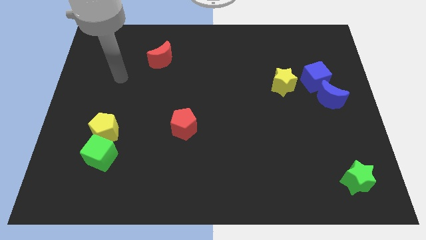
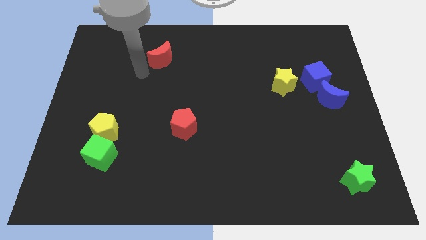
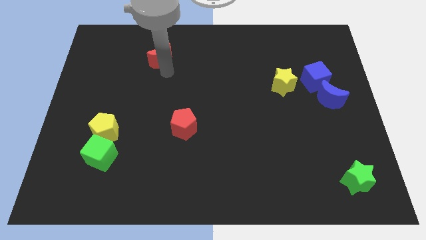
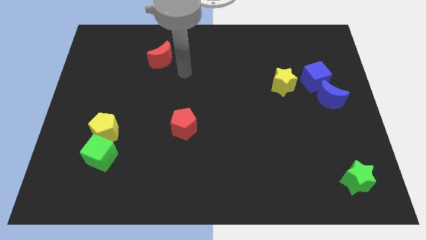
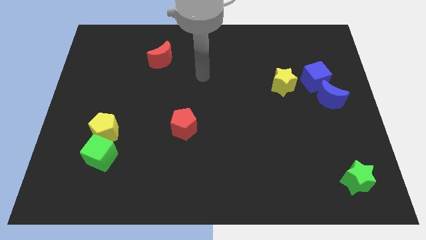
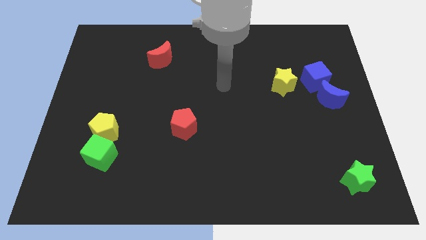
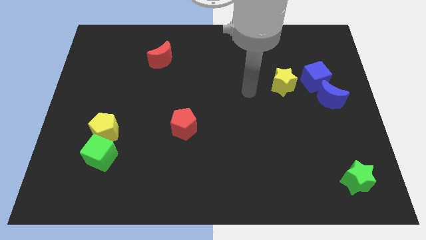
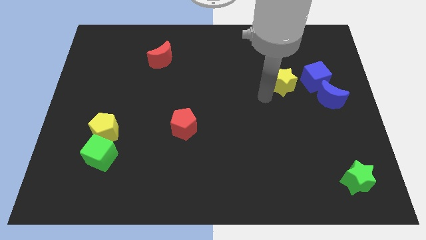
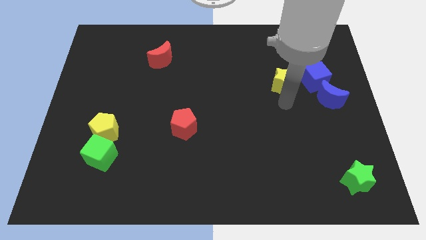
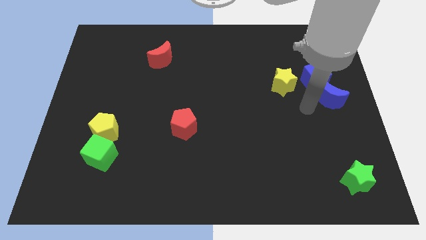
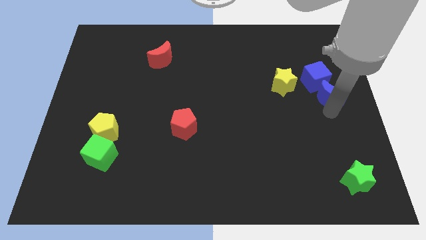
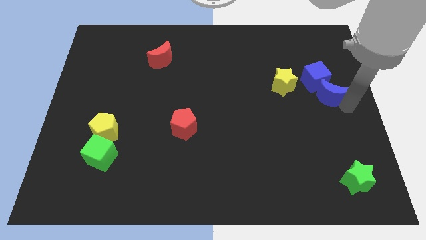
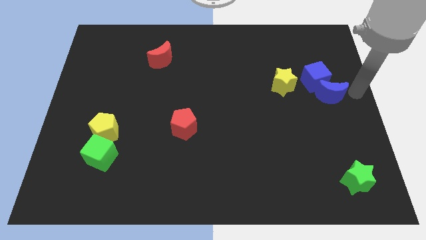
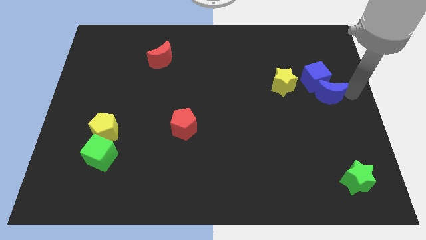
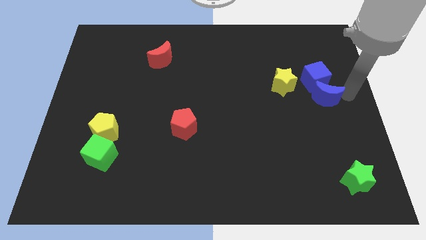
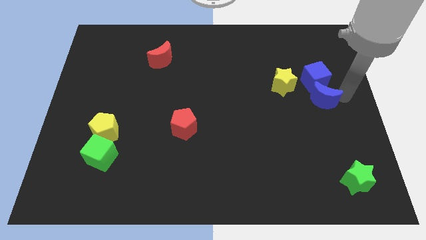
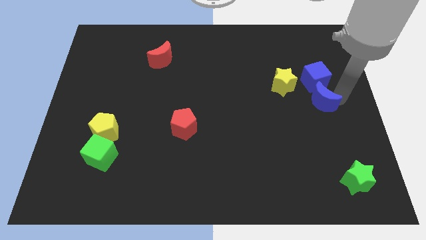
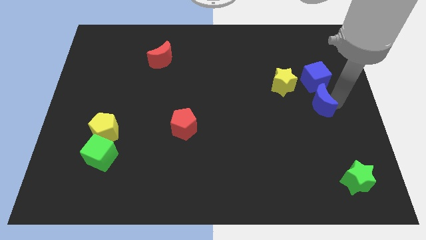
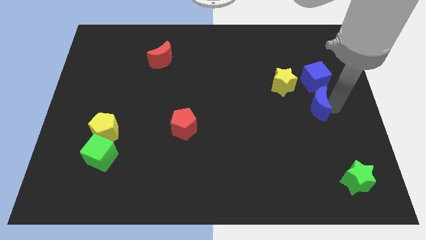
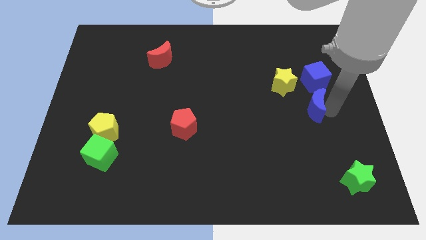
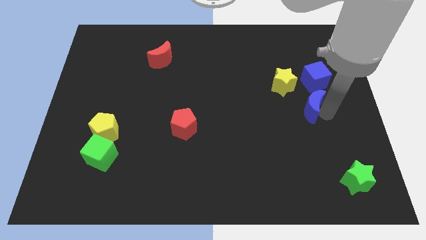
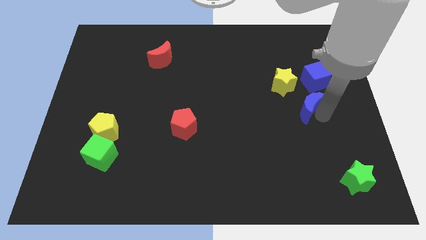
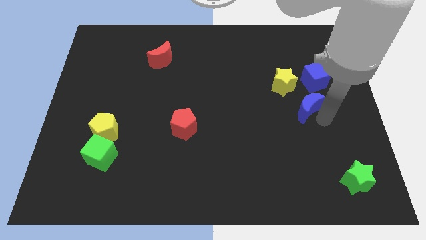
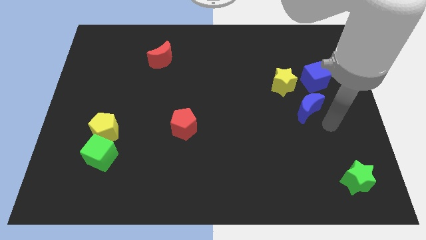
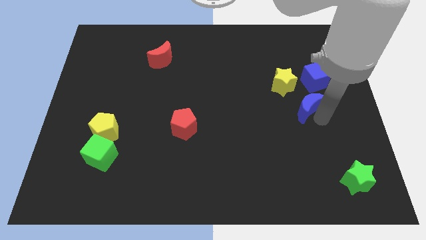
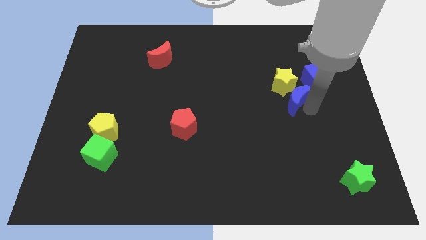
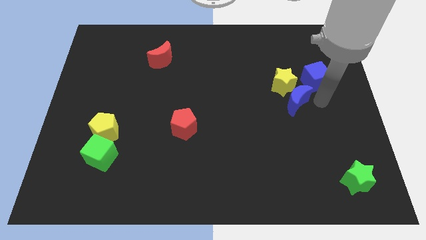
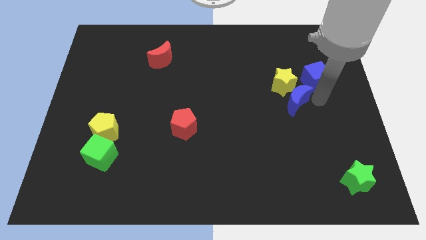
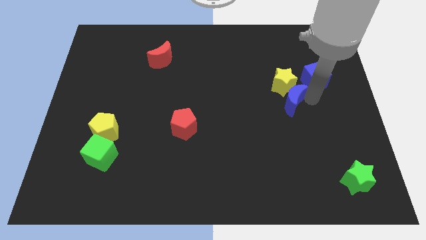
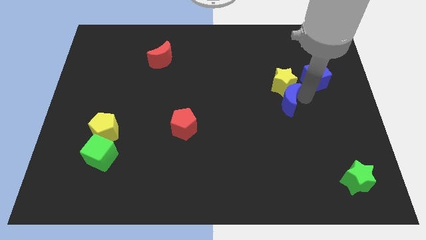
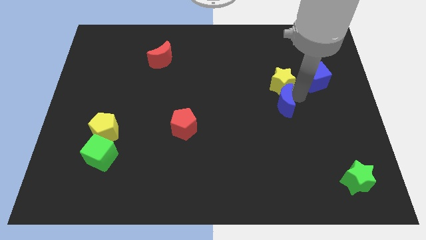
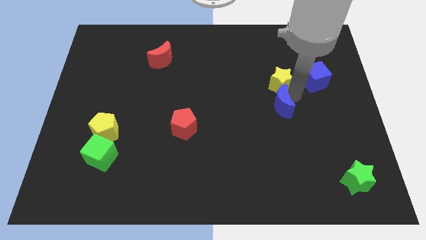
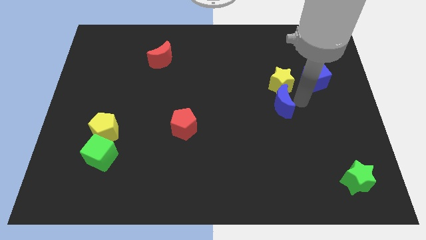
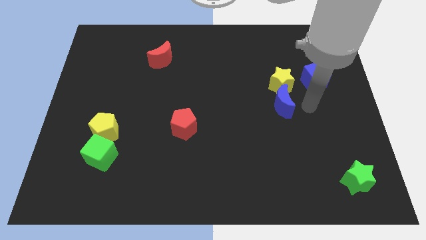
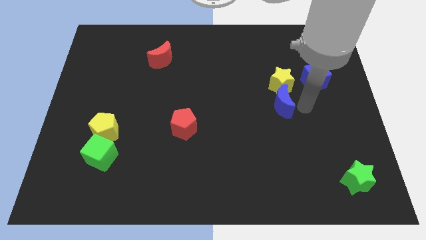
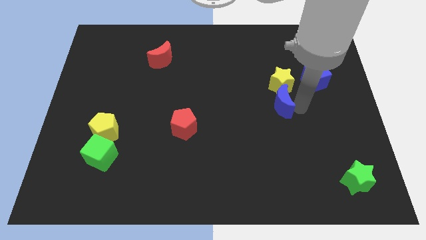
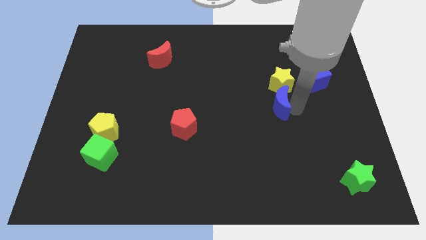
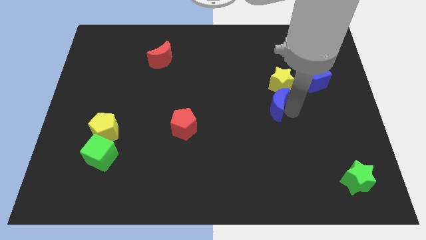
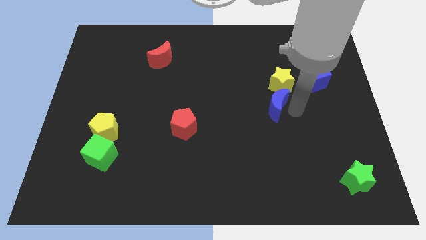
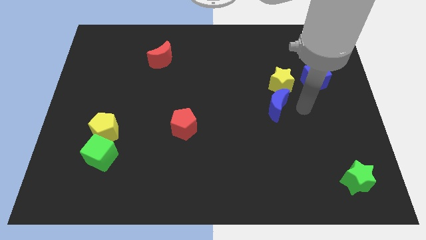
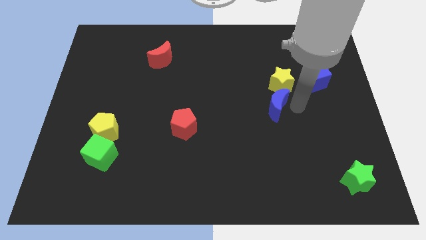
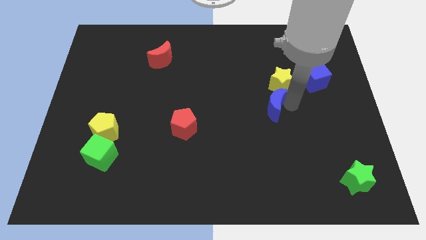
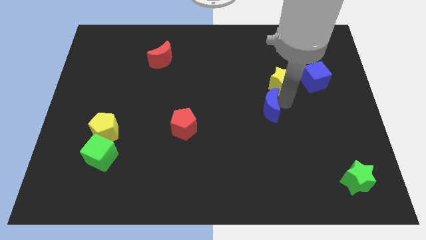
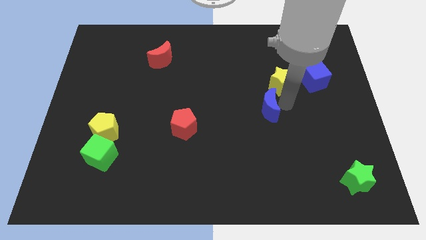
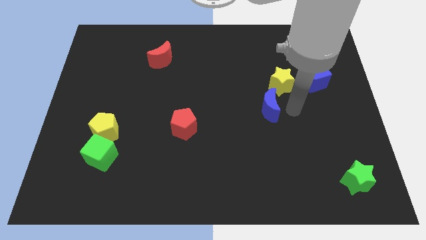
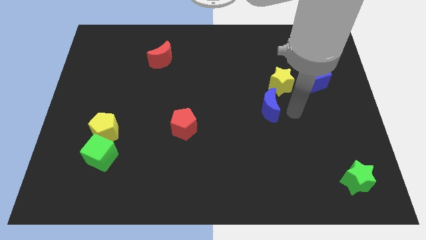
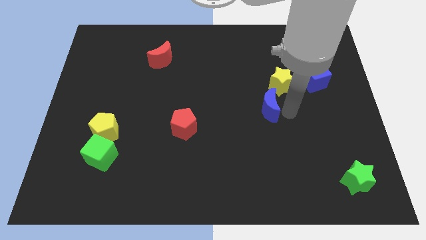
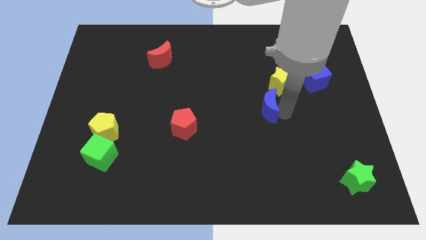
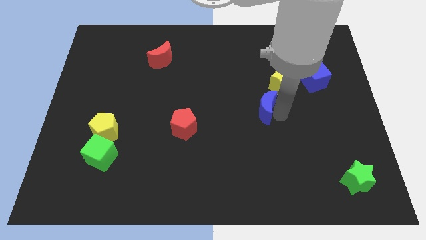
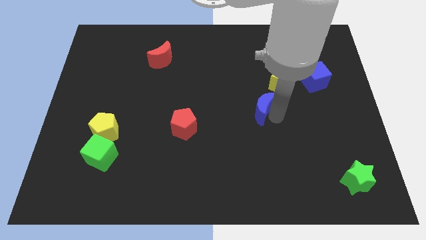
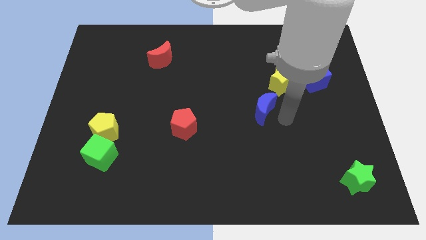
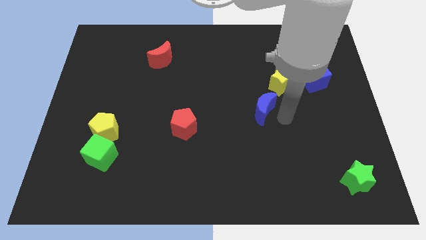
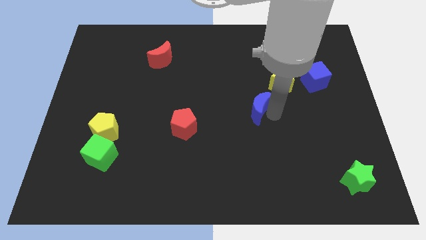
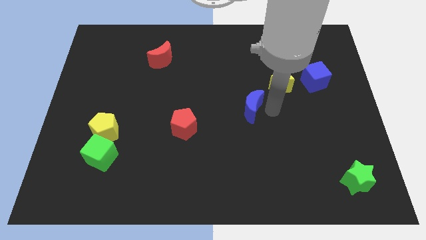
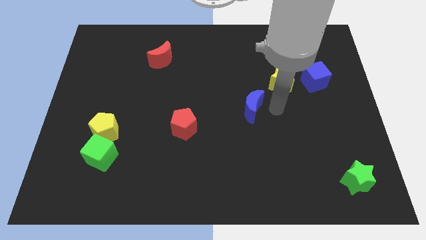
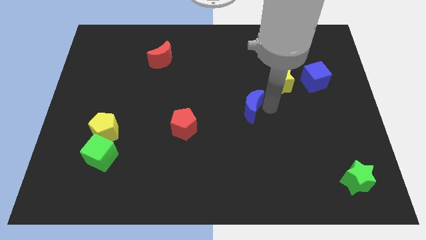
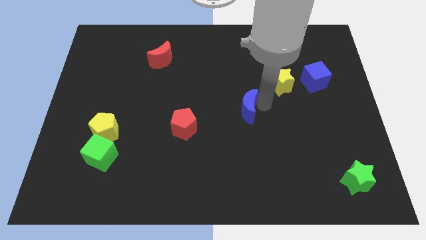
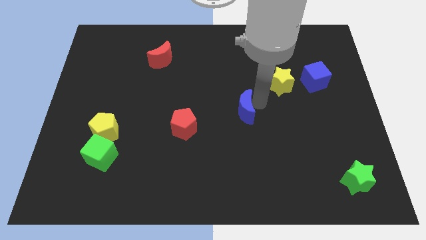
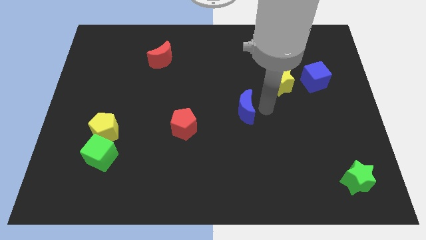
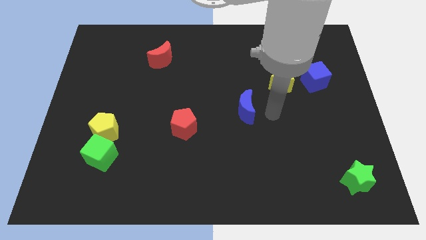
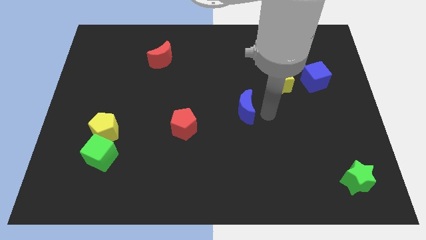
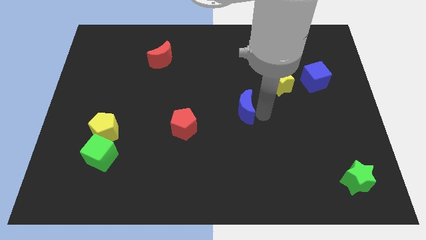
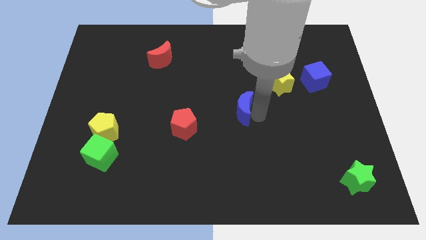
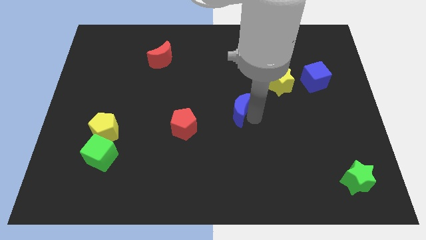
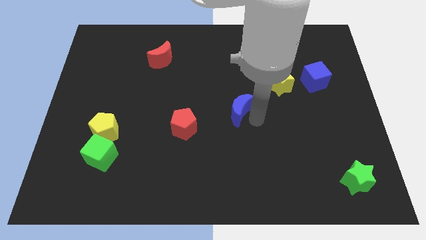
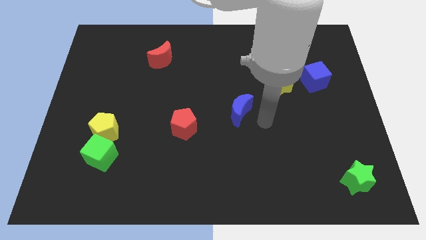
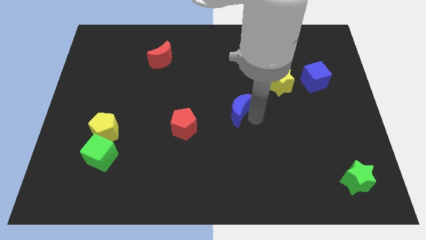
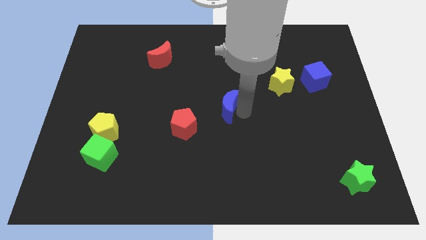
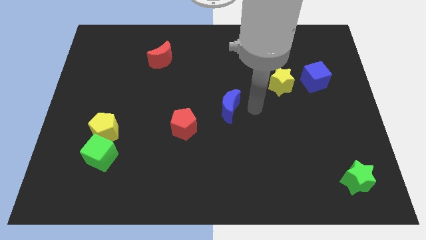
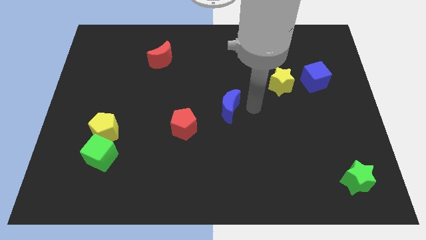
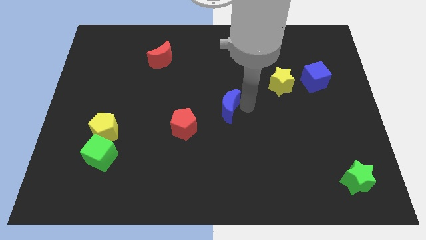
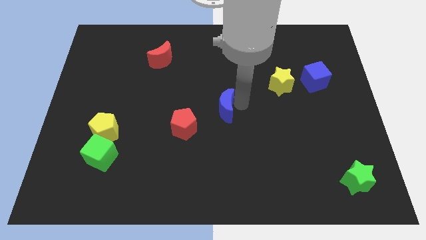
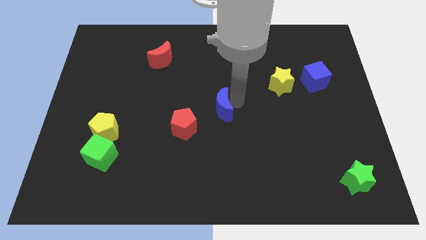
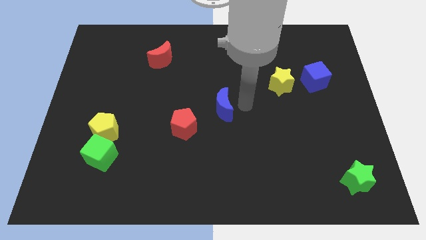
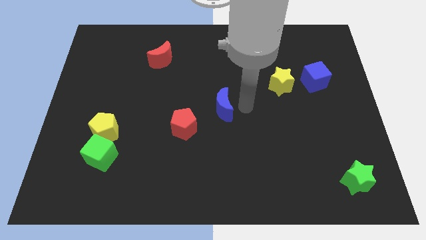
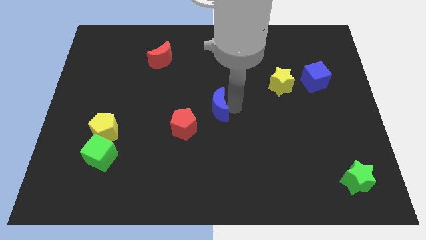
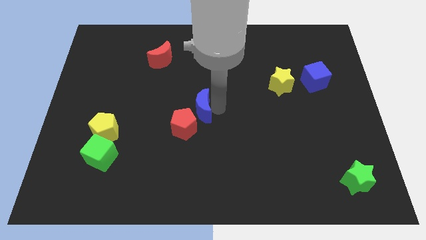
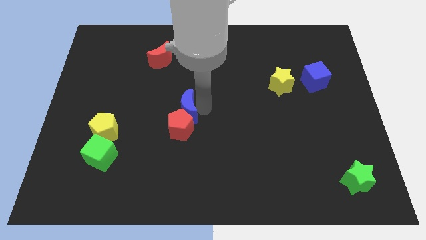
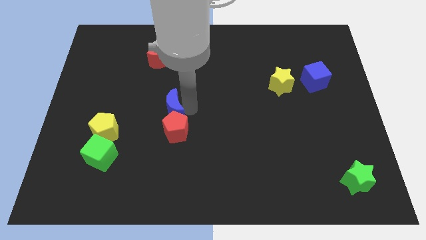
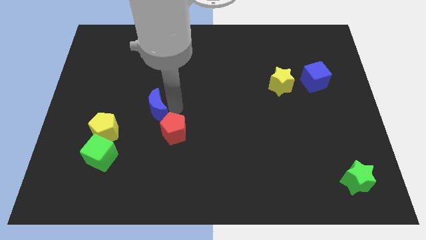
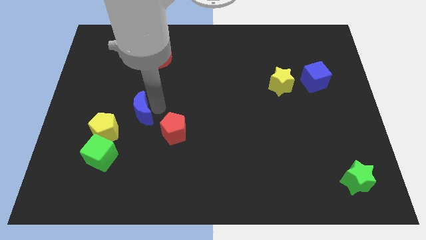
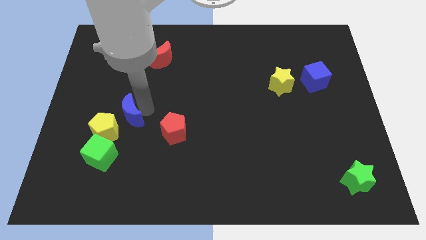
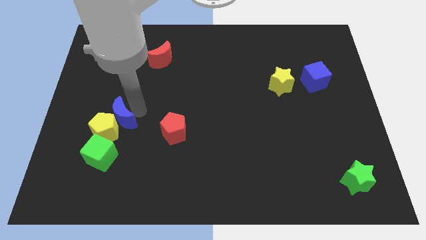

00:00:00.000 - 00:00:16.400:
put the blue moon close to the yellow pentagon
